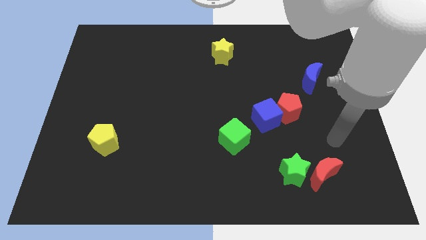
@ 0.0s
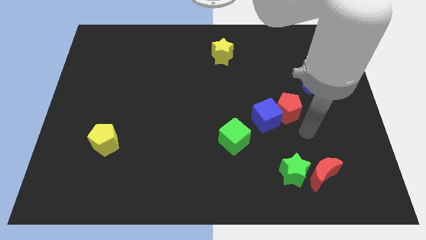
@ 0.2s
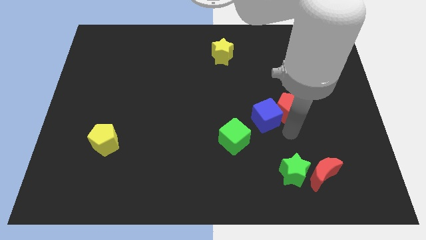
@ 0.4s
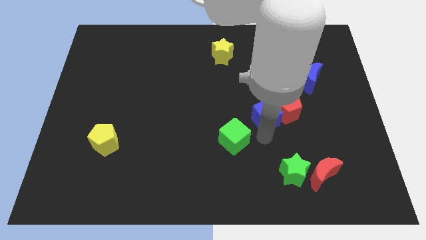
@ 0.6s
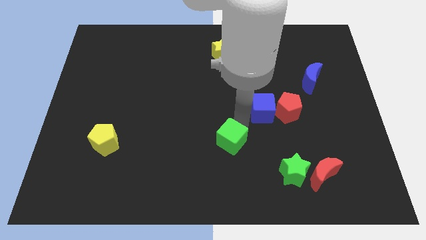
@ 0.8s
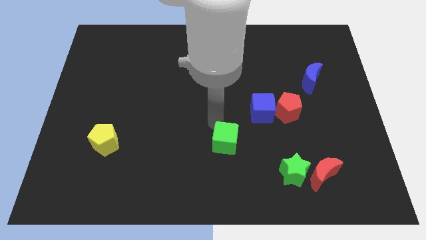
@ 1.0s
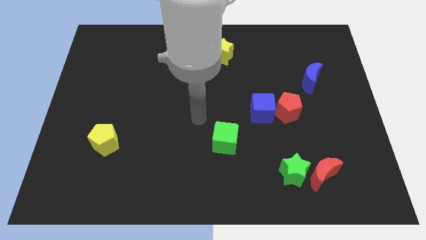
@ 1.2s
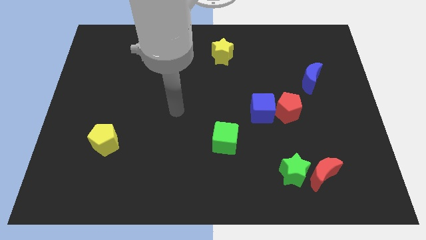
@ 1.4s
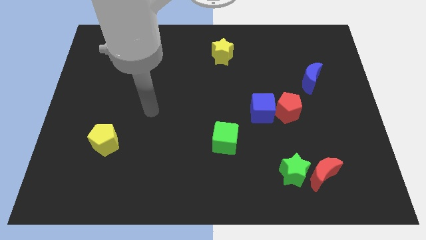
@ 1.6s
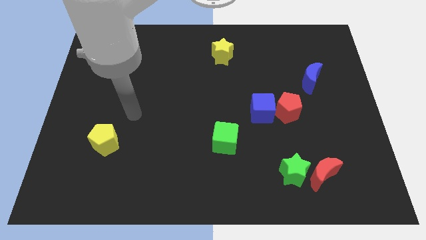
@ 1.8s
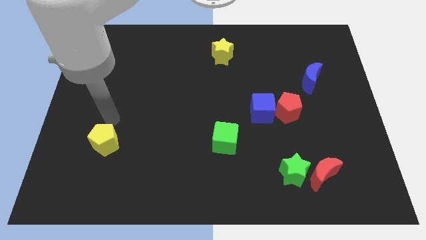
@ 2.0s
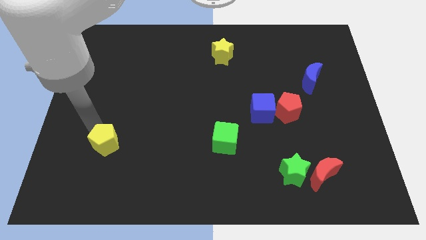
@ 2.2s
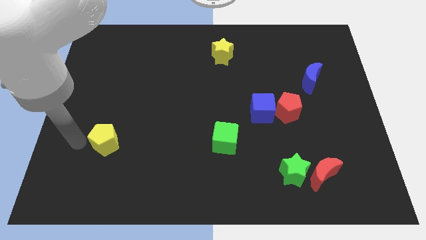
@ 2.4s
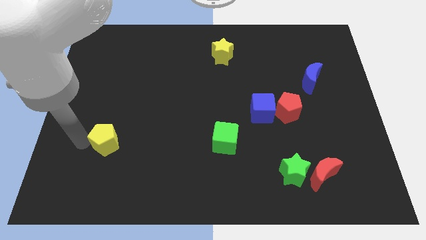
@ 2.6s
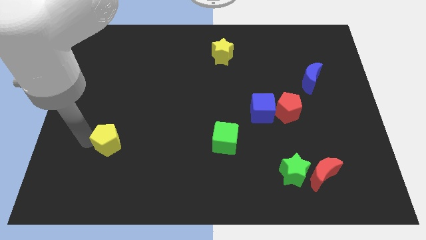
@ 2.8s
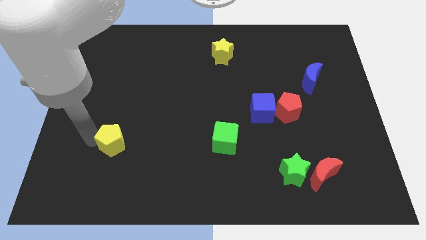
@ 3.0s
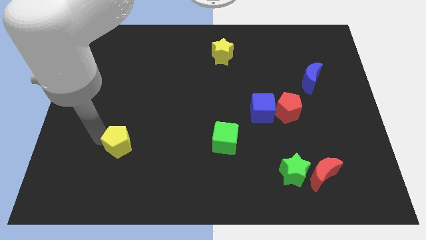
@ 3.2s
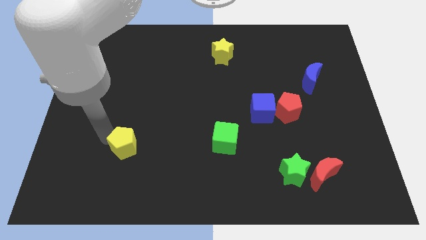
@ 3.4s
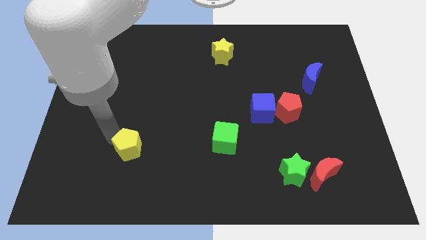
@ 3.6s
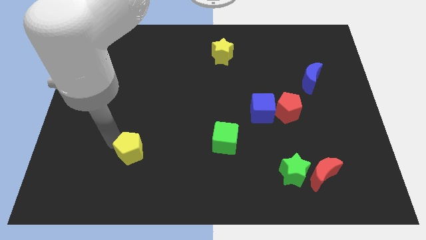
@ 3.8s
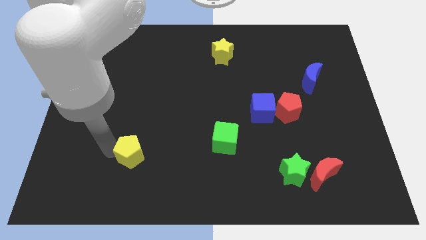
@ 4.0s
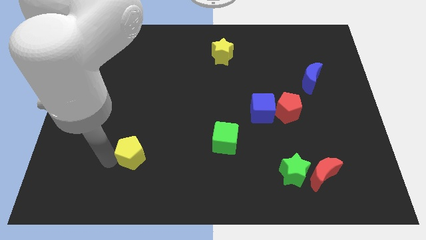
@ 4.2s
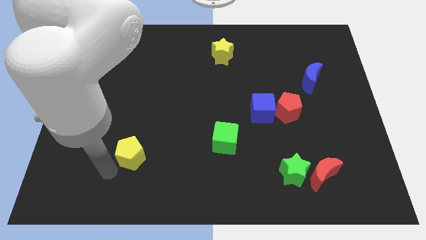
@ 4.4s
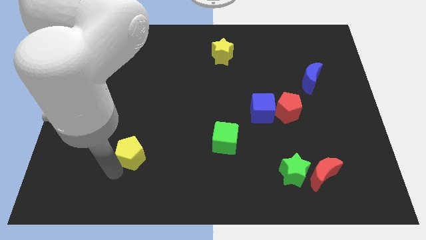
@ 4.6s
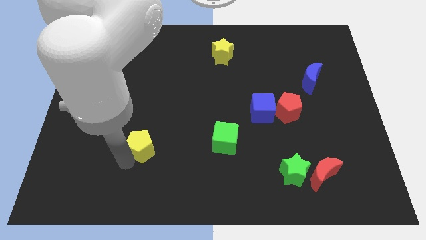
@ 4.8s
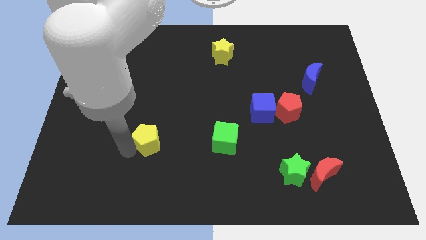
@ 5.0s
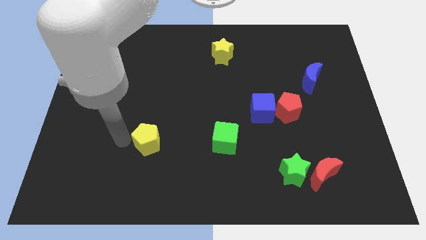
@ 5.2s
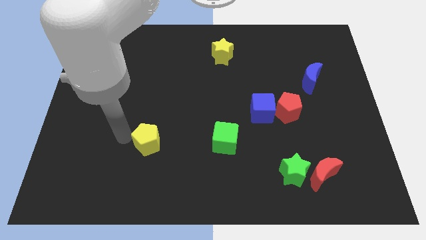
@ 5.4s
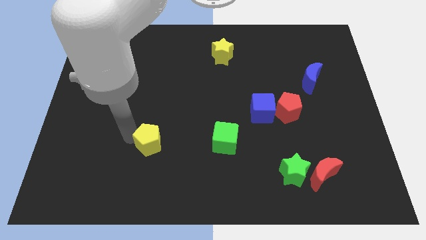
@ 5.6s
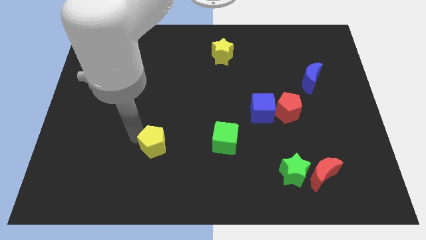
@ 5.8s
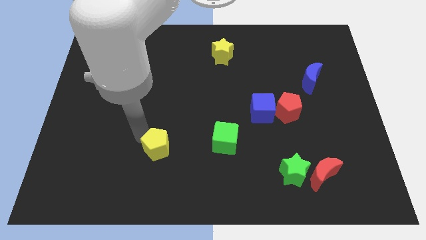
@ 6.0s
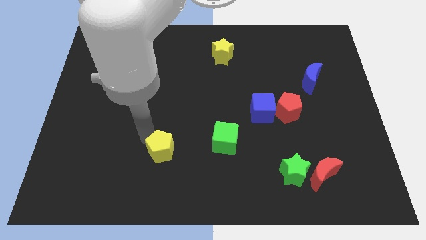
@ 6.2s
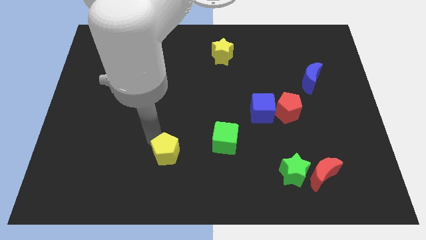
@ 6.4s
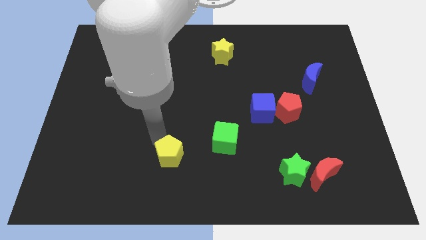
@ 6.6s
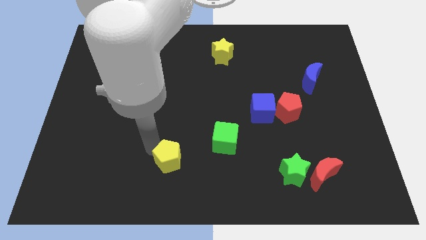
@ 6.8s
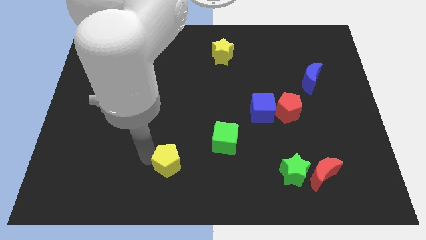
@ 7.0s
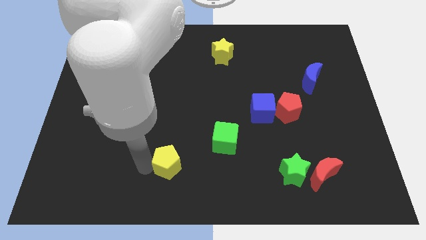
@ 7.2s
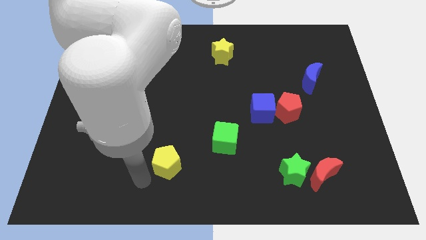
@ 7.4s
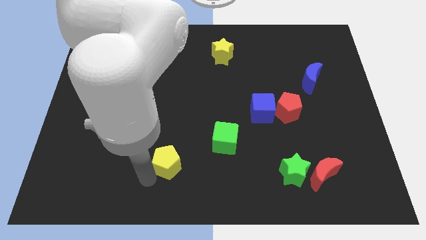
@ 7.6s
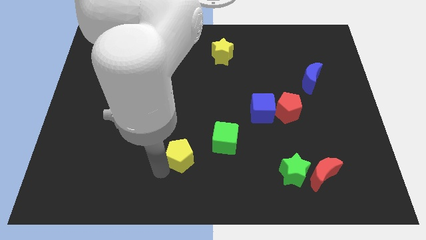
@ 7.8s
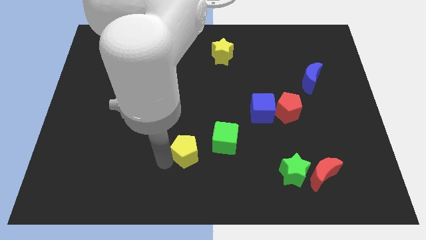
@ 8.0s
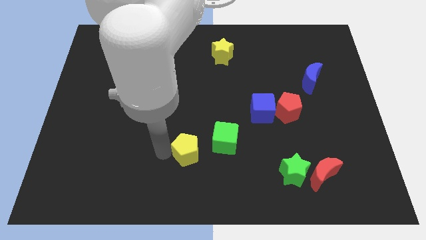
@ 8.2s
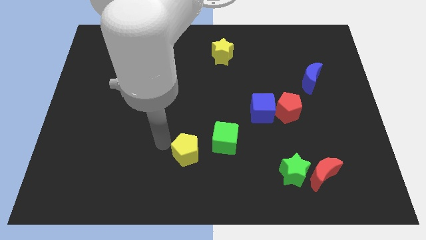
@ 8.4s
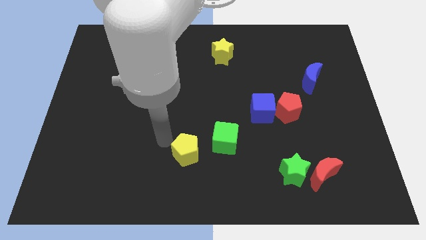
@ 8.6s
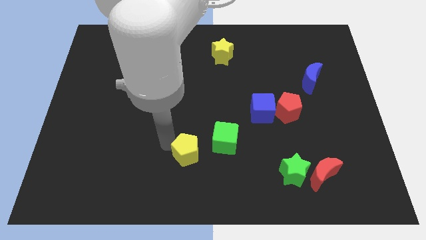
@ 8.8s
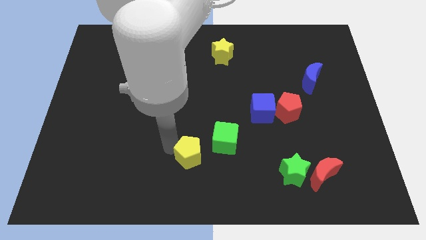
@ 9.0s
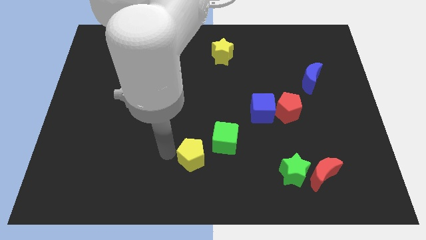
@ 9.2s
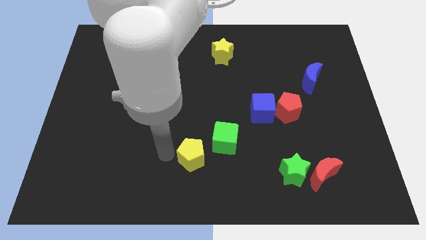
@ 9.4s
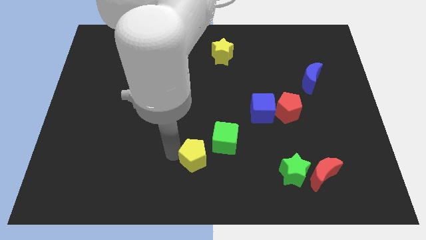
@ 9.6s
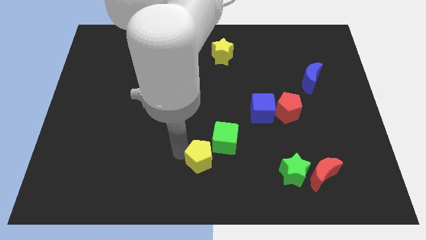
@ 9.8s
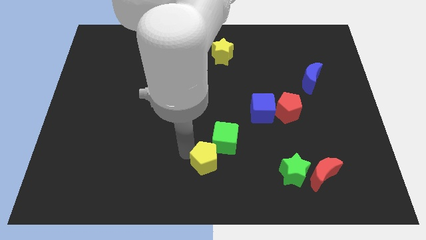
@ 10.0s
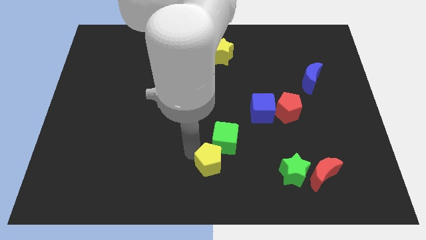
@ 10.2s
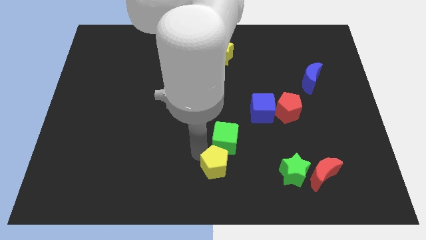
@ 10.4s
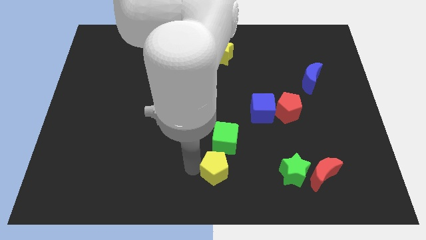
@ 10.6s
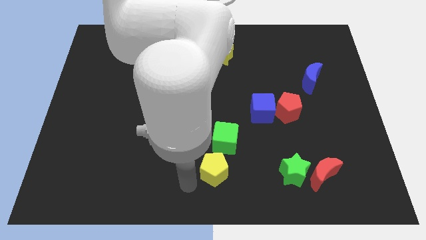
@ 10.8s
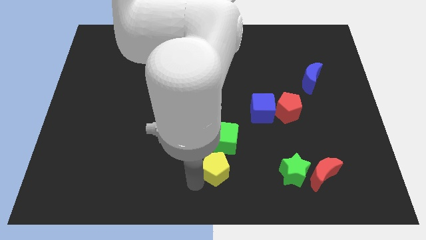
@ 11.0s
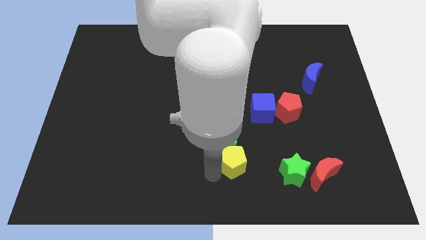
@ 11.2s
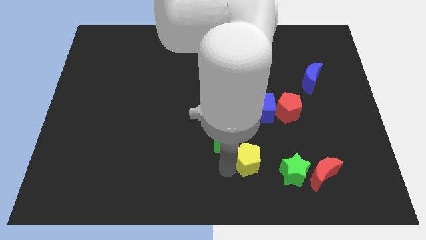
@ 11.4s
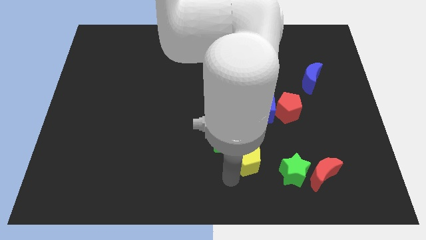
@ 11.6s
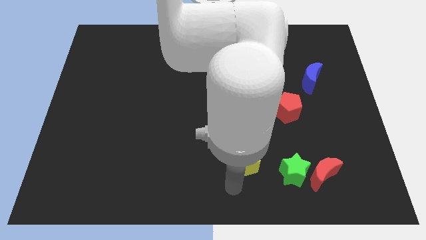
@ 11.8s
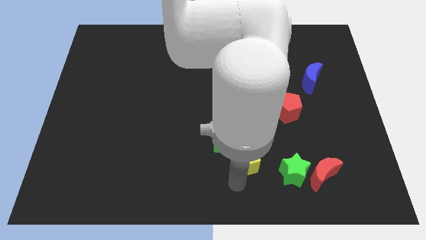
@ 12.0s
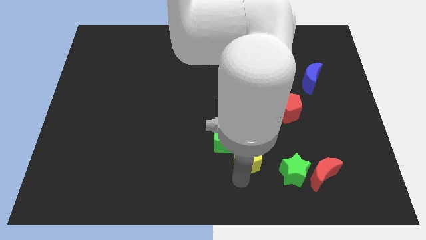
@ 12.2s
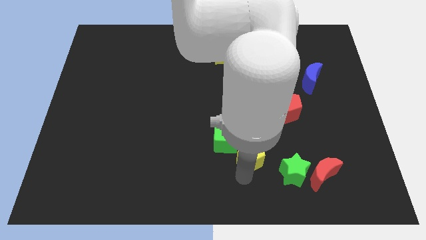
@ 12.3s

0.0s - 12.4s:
put the yellow pentagon to the right side of the green cube

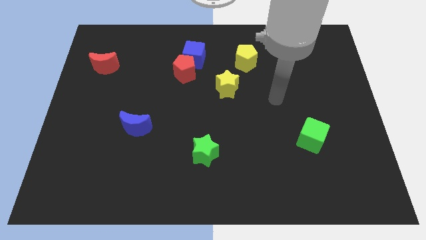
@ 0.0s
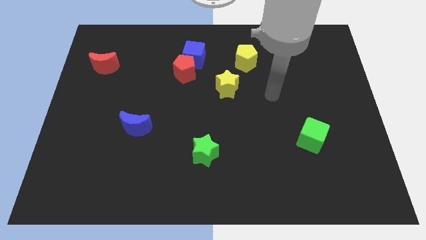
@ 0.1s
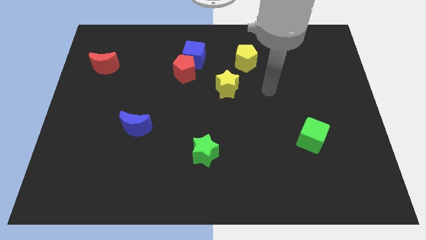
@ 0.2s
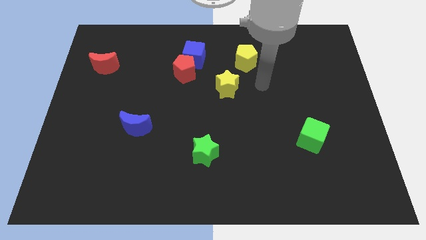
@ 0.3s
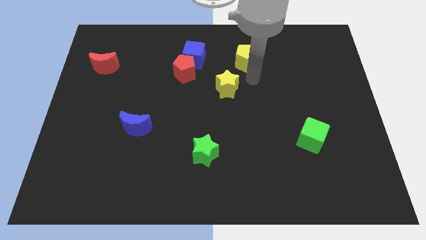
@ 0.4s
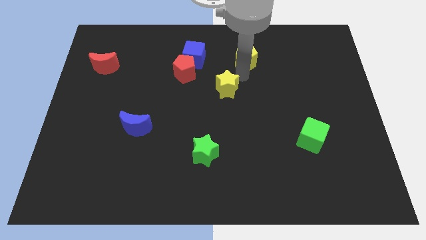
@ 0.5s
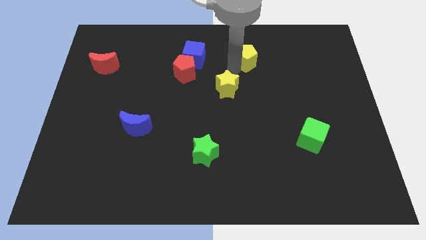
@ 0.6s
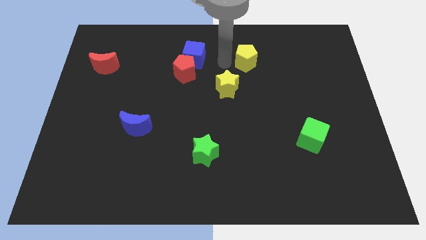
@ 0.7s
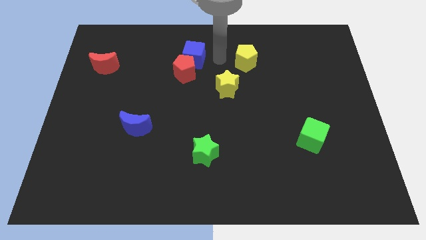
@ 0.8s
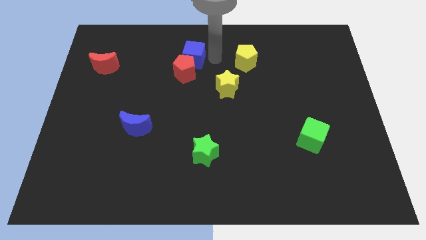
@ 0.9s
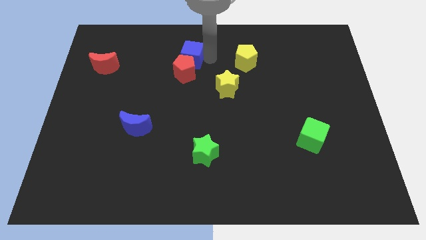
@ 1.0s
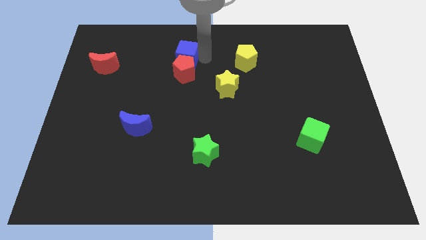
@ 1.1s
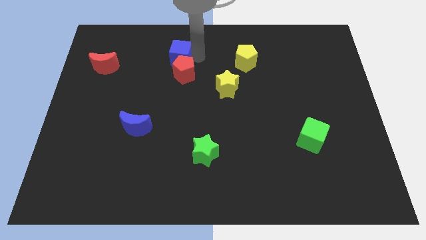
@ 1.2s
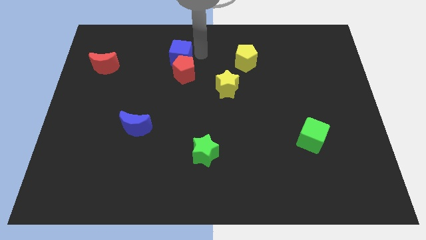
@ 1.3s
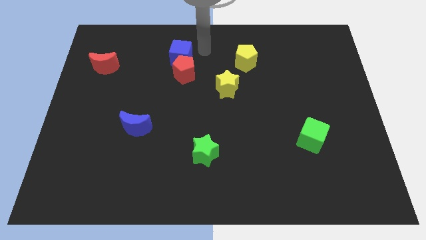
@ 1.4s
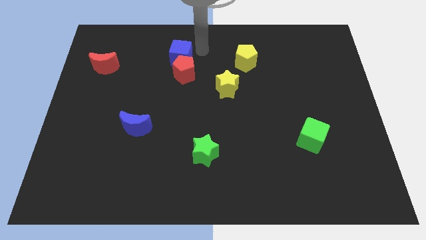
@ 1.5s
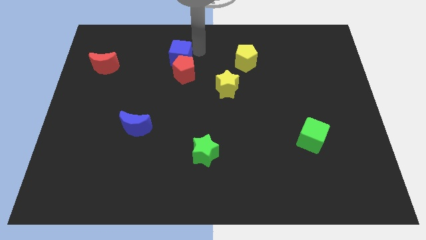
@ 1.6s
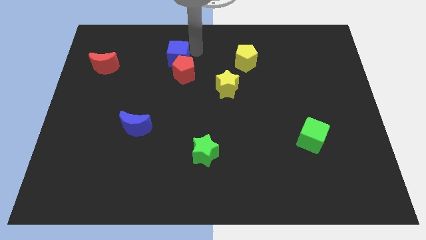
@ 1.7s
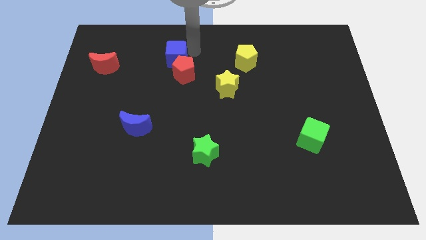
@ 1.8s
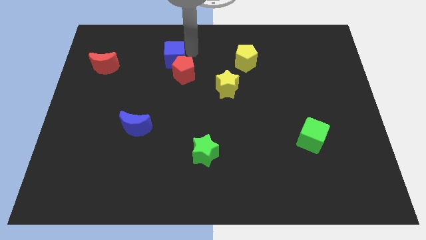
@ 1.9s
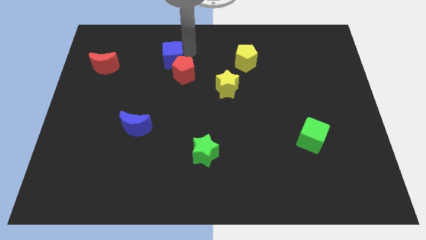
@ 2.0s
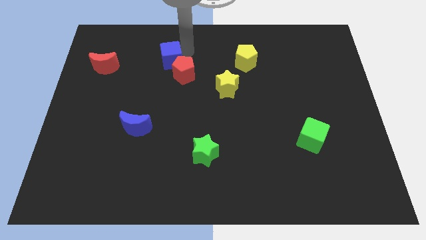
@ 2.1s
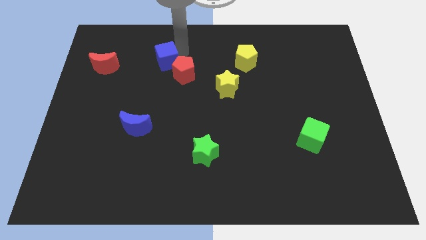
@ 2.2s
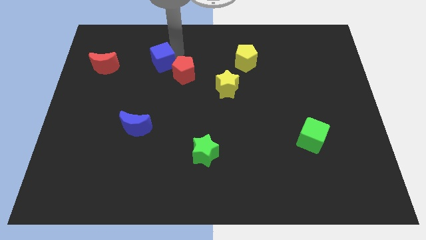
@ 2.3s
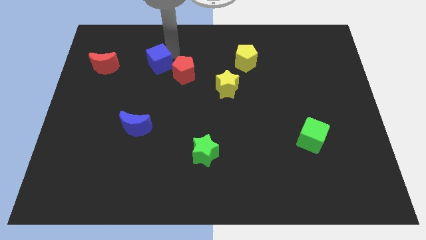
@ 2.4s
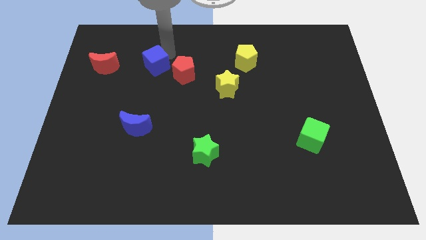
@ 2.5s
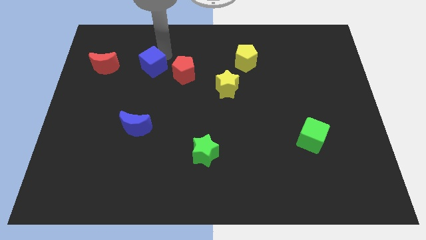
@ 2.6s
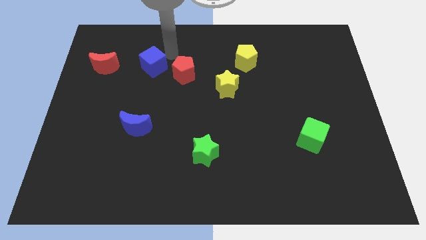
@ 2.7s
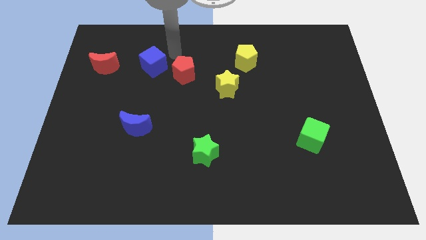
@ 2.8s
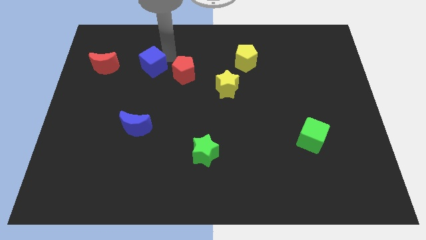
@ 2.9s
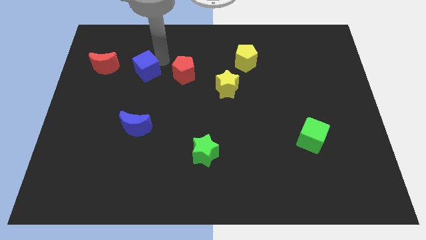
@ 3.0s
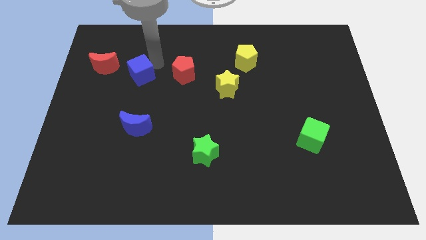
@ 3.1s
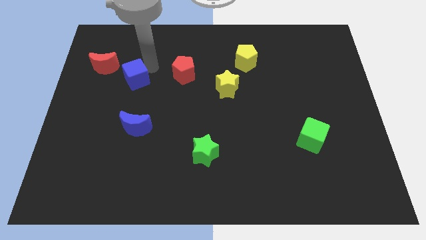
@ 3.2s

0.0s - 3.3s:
push the blue cube to the bottom right of the red moon
